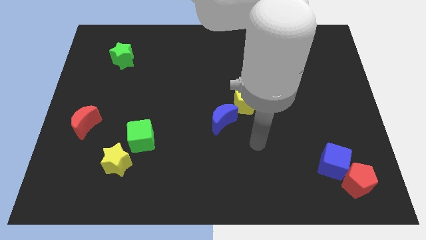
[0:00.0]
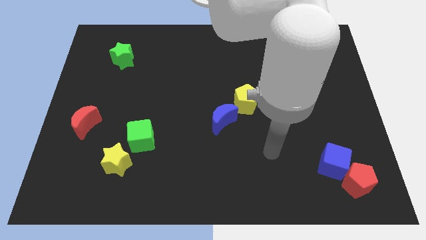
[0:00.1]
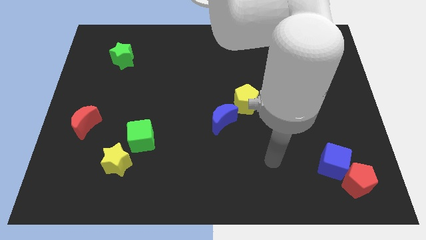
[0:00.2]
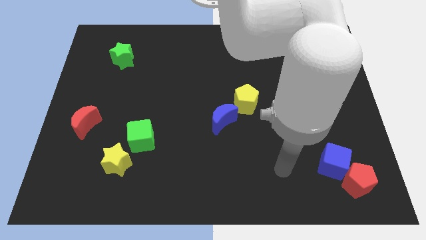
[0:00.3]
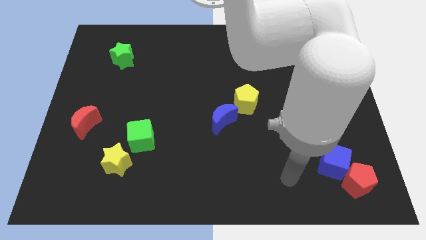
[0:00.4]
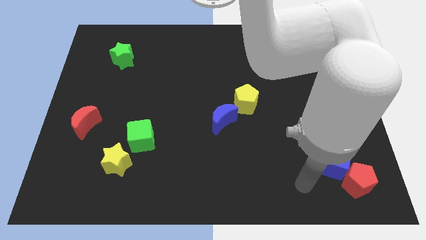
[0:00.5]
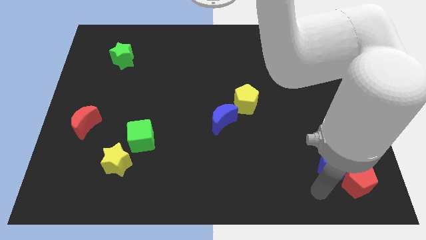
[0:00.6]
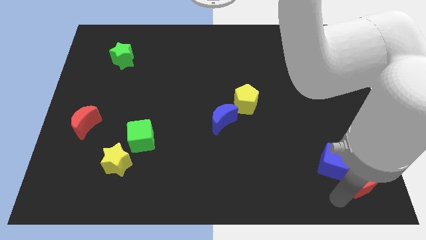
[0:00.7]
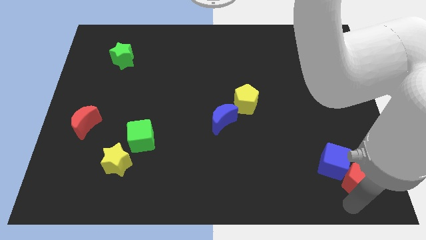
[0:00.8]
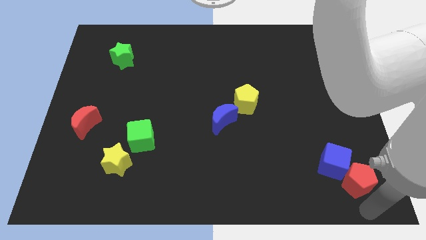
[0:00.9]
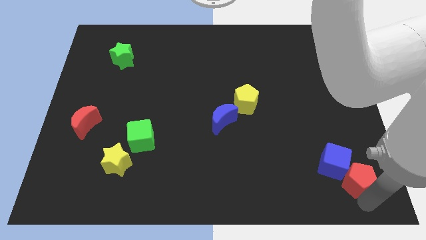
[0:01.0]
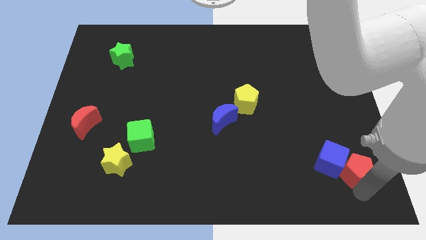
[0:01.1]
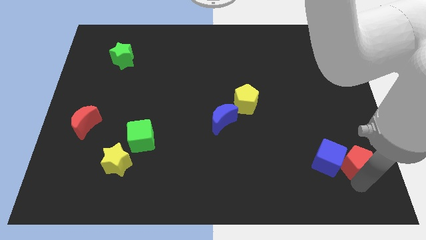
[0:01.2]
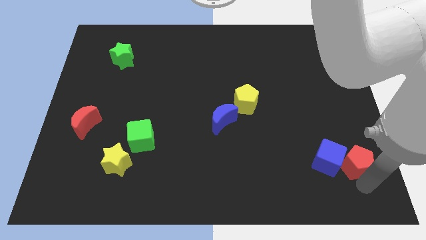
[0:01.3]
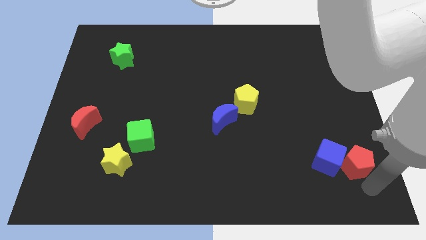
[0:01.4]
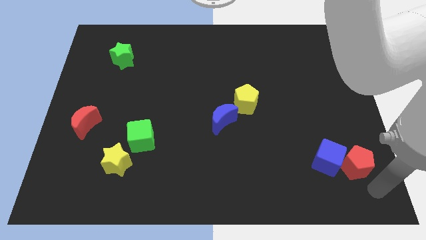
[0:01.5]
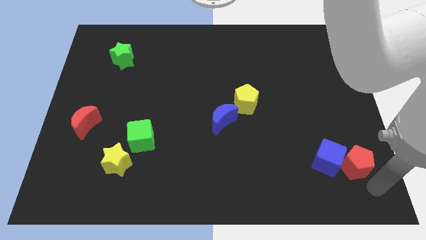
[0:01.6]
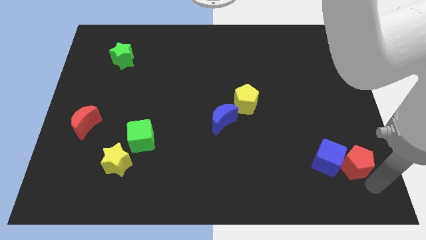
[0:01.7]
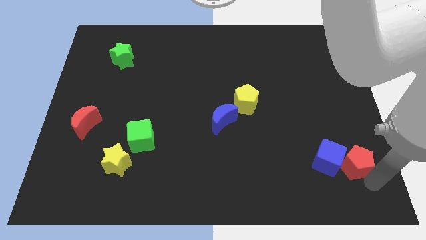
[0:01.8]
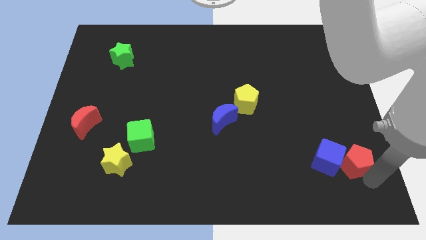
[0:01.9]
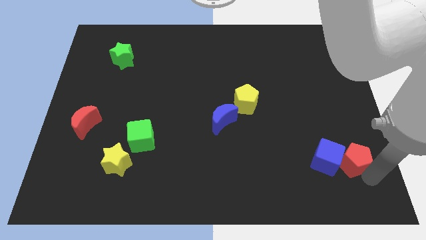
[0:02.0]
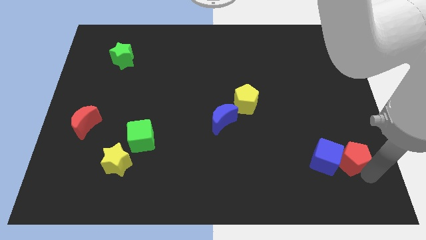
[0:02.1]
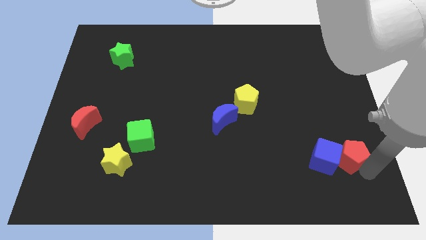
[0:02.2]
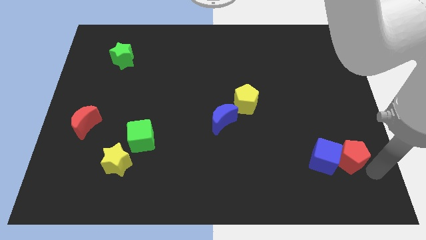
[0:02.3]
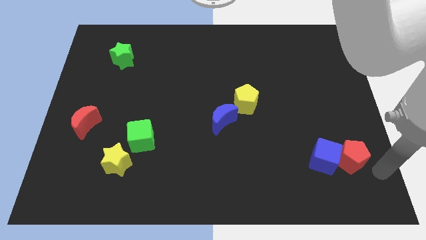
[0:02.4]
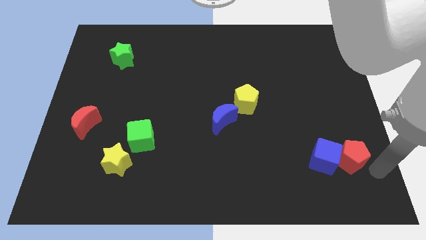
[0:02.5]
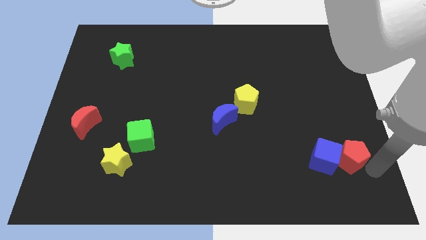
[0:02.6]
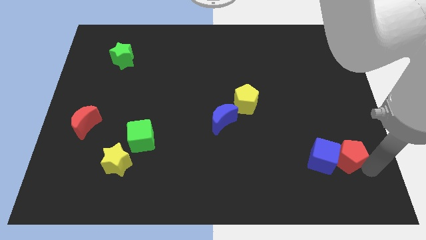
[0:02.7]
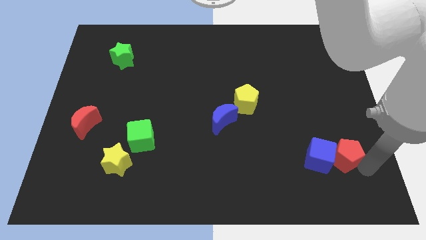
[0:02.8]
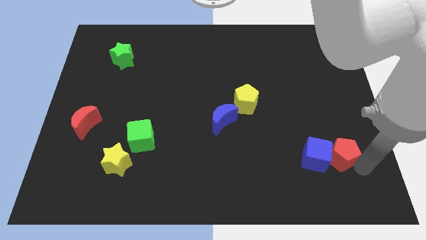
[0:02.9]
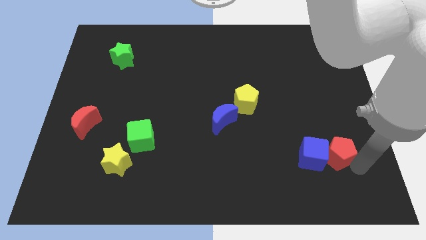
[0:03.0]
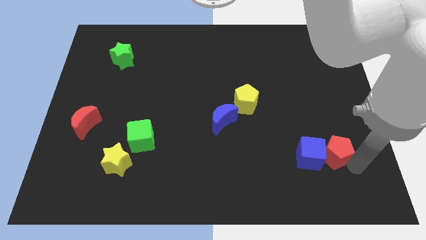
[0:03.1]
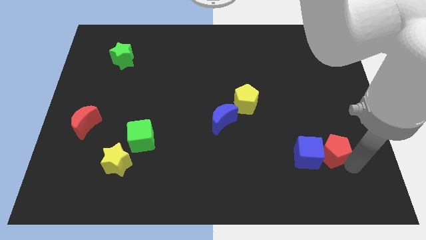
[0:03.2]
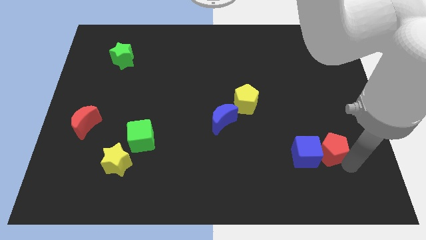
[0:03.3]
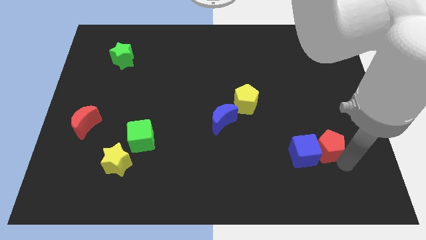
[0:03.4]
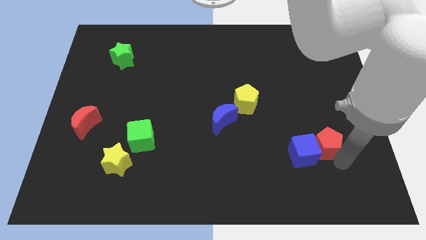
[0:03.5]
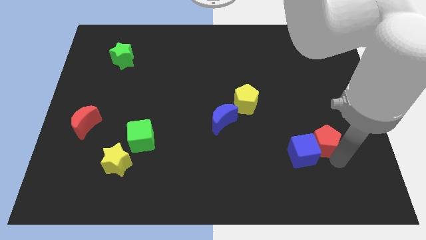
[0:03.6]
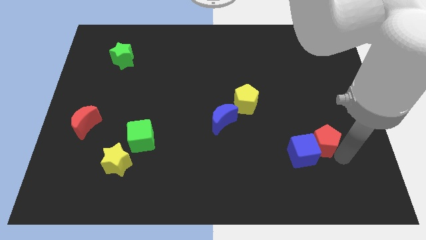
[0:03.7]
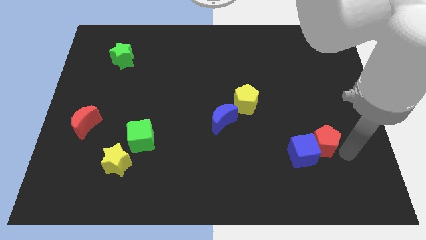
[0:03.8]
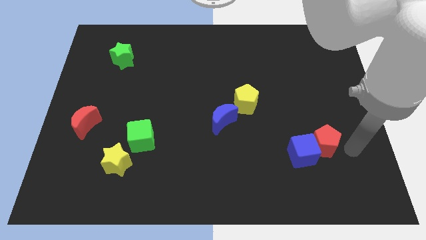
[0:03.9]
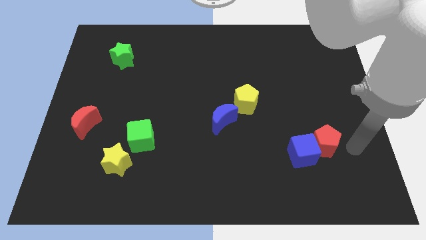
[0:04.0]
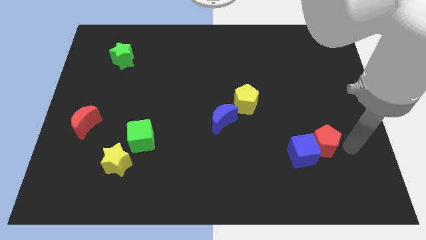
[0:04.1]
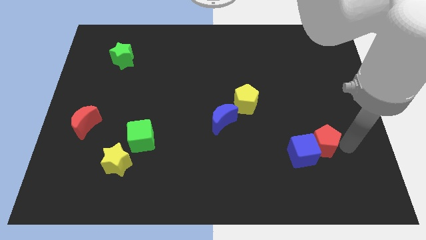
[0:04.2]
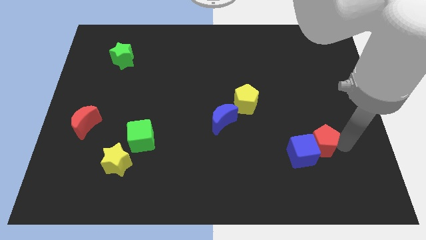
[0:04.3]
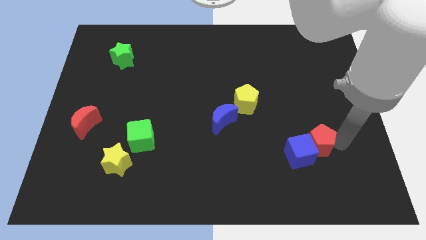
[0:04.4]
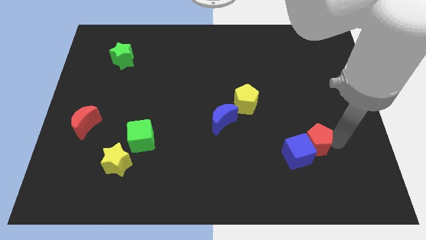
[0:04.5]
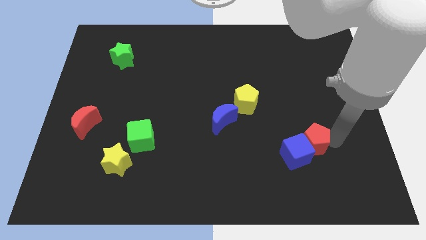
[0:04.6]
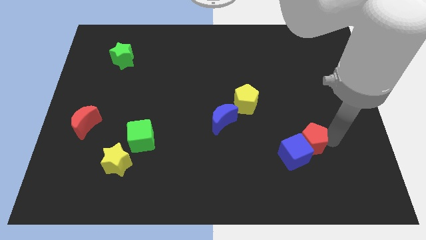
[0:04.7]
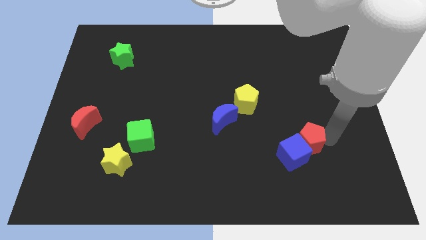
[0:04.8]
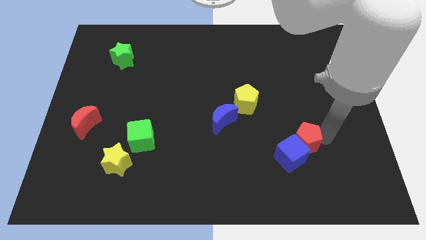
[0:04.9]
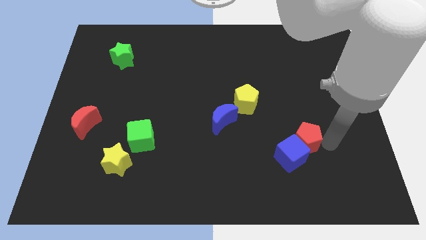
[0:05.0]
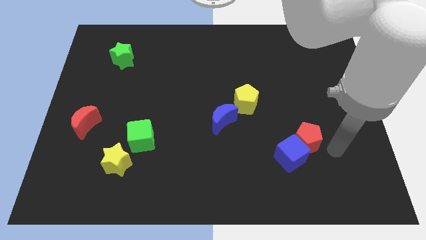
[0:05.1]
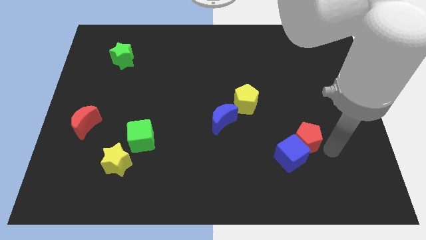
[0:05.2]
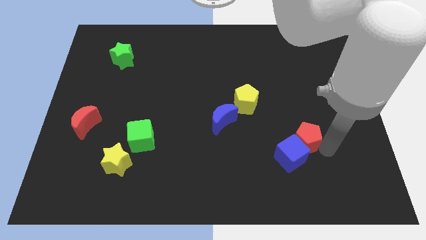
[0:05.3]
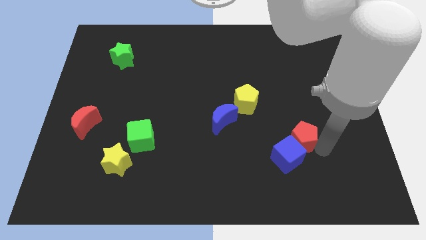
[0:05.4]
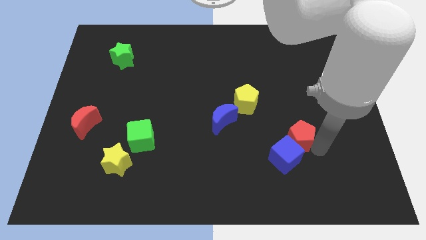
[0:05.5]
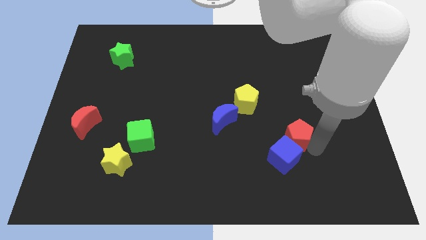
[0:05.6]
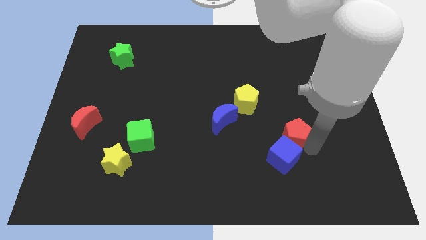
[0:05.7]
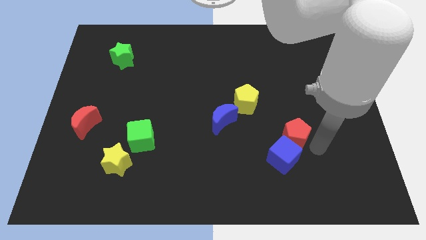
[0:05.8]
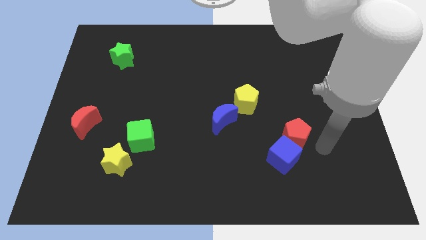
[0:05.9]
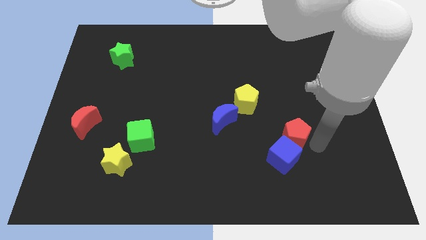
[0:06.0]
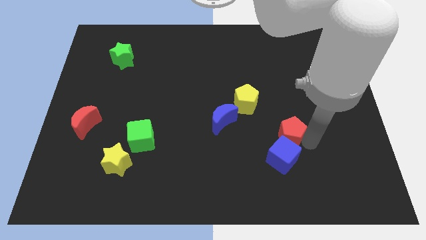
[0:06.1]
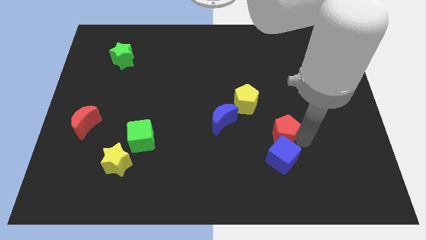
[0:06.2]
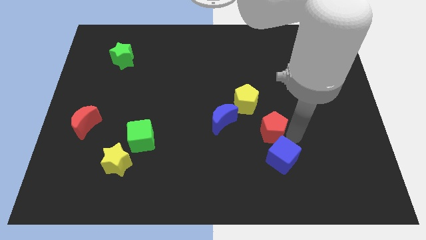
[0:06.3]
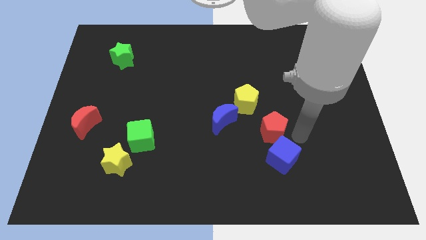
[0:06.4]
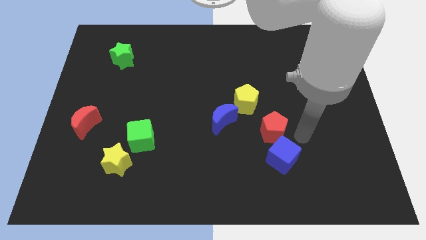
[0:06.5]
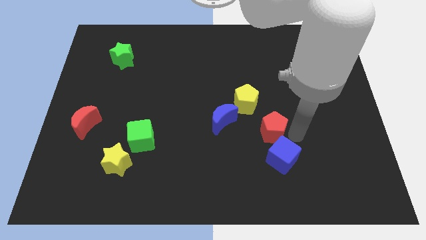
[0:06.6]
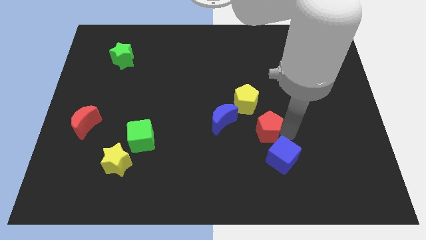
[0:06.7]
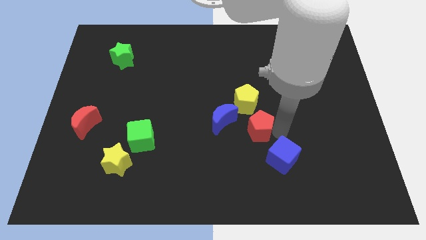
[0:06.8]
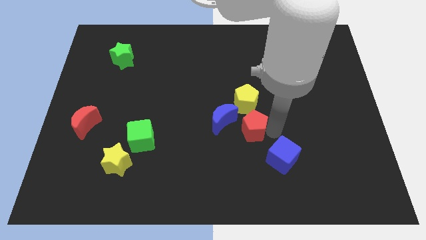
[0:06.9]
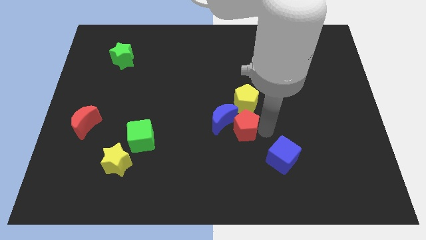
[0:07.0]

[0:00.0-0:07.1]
push the red pentagon towards the blue moon
